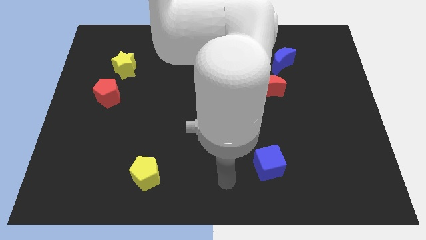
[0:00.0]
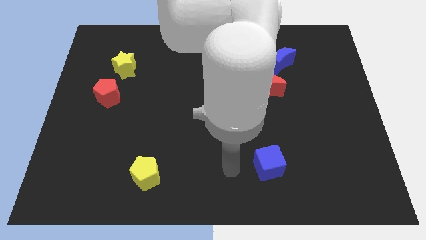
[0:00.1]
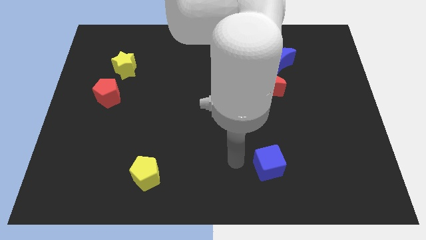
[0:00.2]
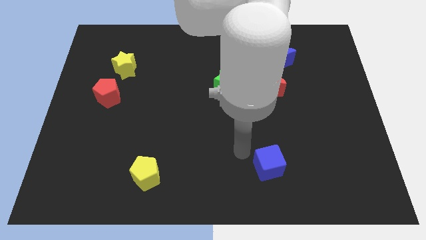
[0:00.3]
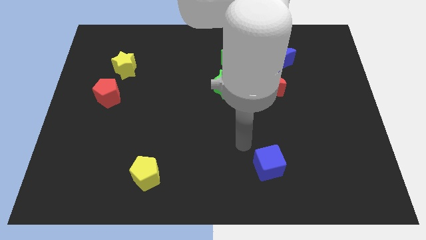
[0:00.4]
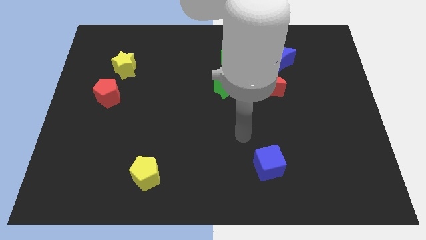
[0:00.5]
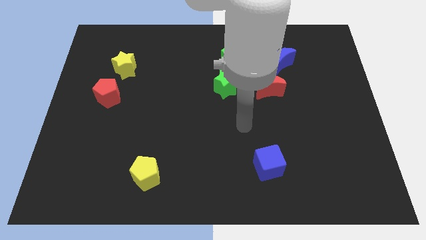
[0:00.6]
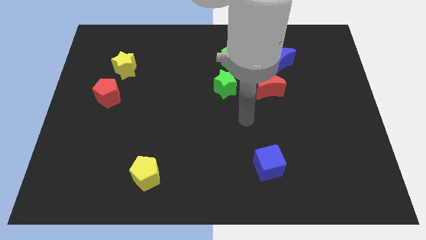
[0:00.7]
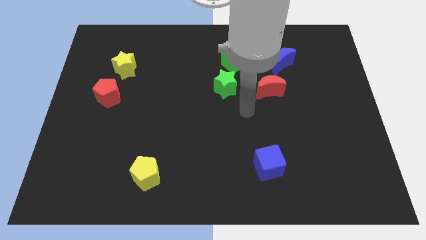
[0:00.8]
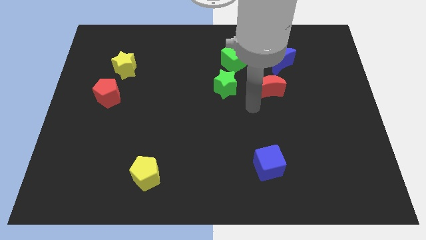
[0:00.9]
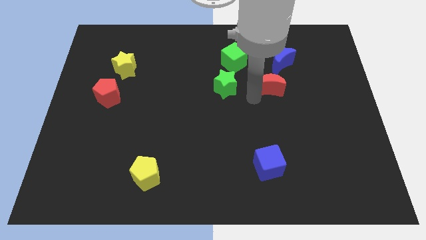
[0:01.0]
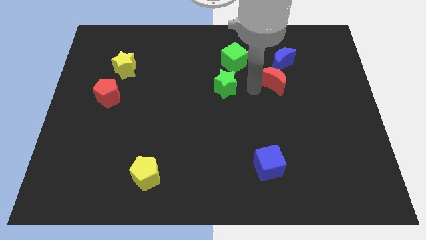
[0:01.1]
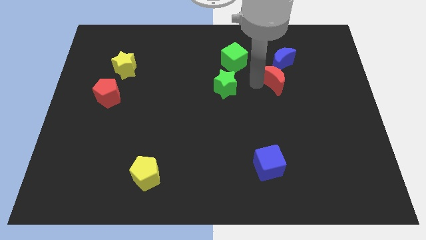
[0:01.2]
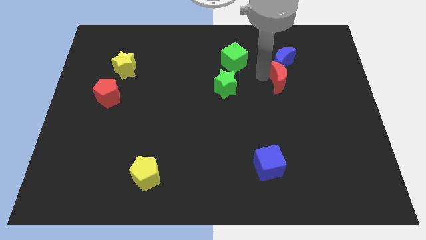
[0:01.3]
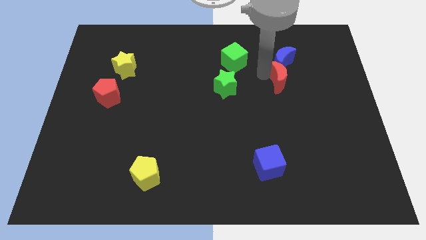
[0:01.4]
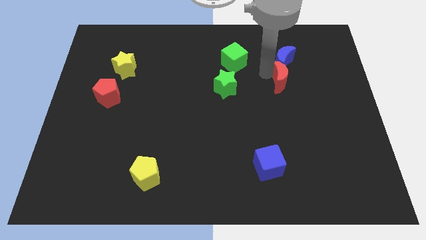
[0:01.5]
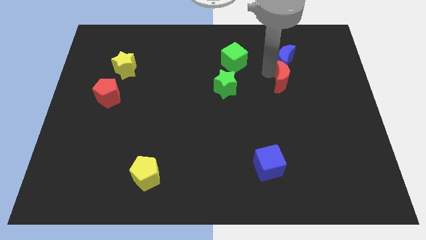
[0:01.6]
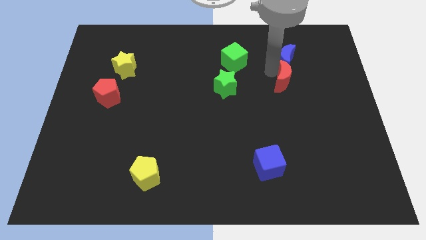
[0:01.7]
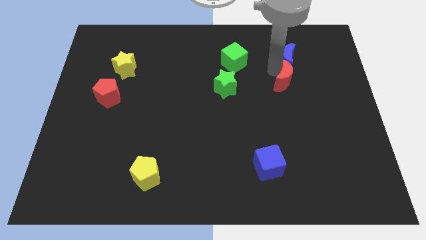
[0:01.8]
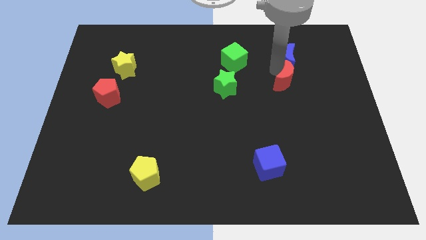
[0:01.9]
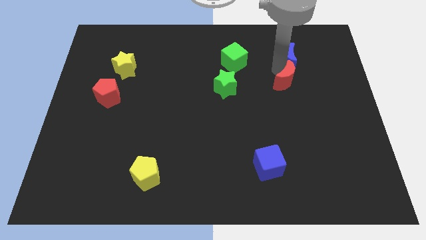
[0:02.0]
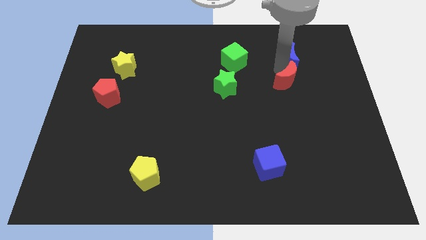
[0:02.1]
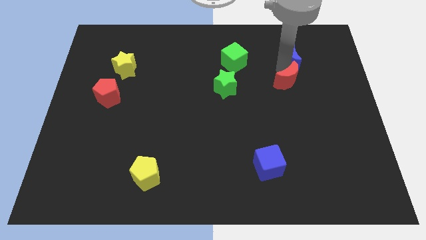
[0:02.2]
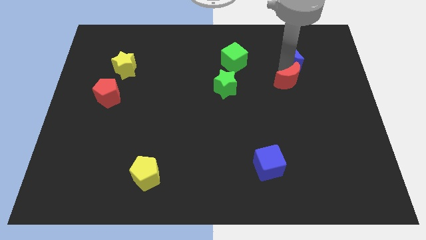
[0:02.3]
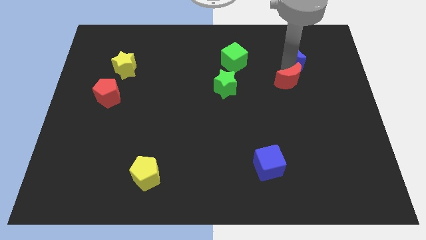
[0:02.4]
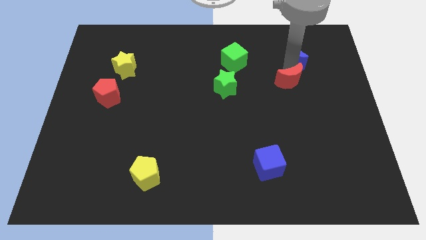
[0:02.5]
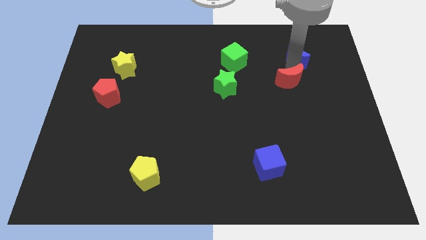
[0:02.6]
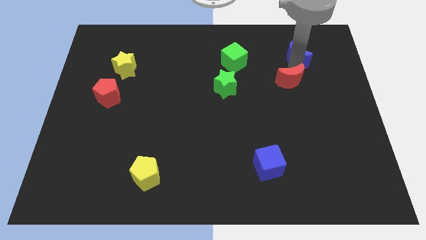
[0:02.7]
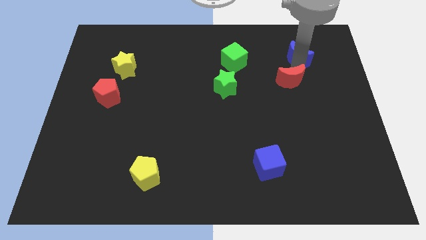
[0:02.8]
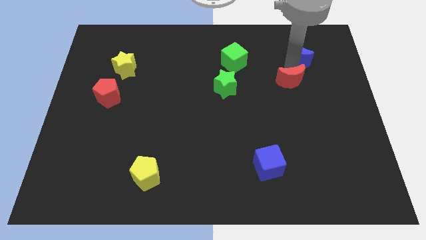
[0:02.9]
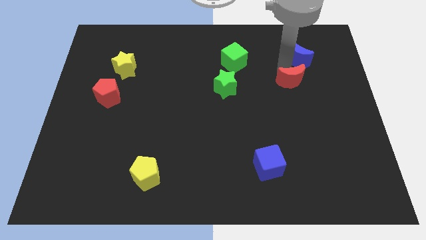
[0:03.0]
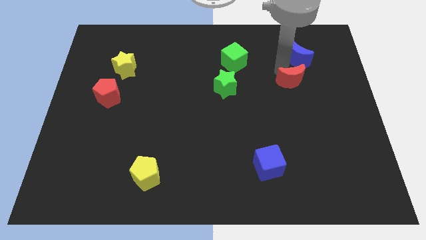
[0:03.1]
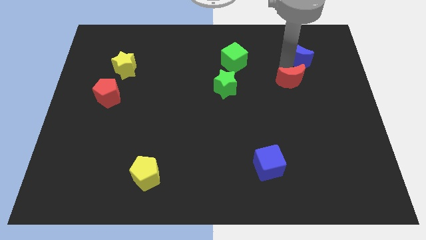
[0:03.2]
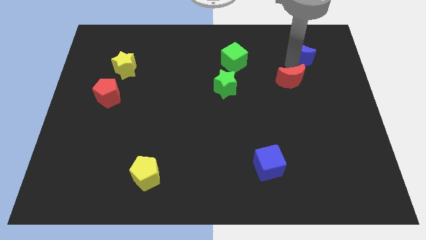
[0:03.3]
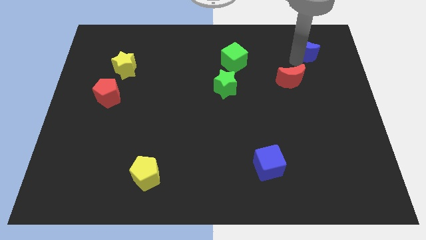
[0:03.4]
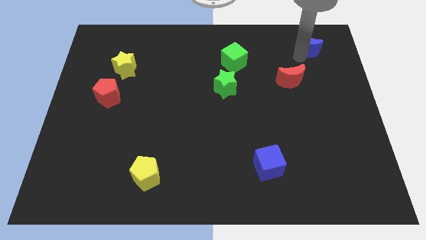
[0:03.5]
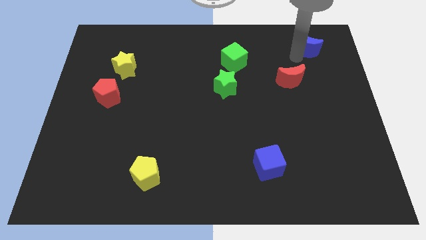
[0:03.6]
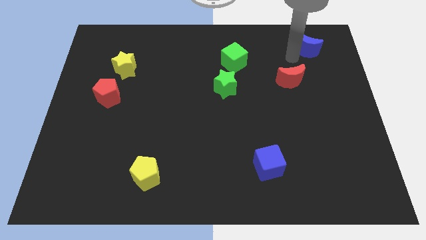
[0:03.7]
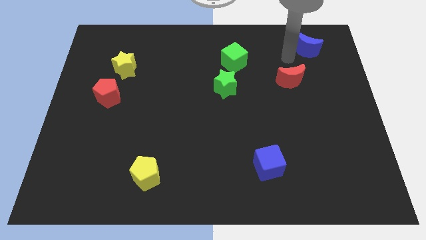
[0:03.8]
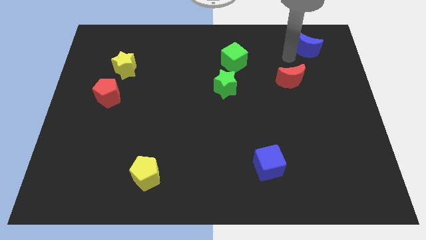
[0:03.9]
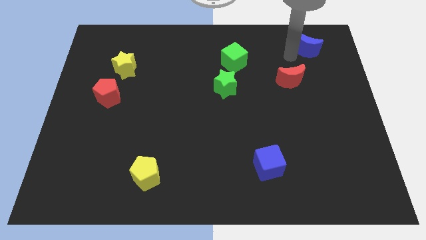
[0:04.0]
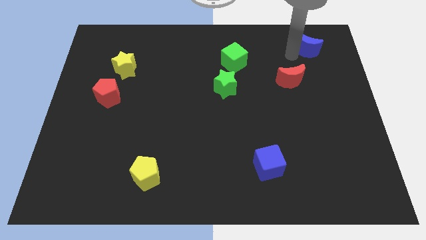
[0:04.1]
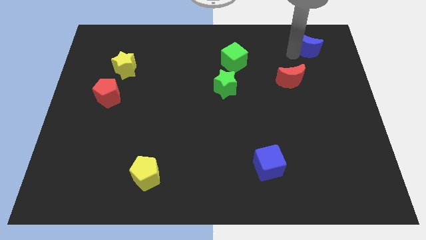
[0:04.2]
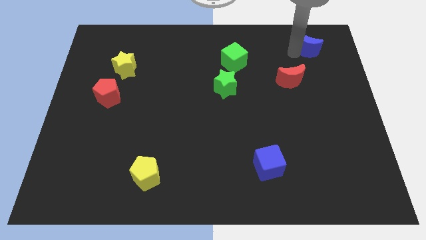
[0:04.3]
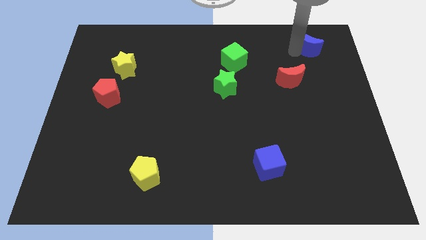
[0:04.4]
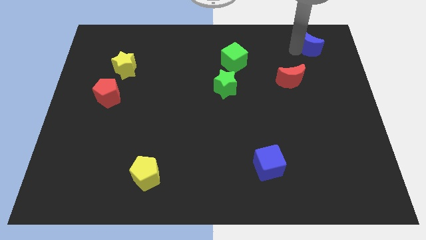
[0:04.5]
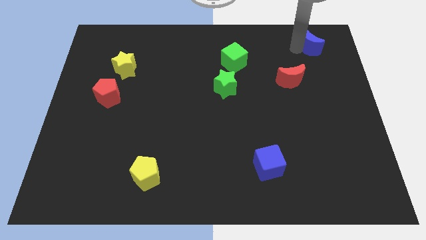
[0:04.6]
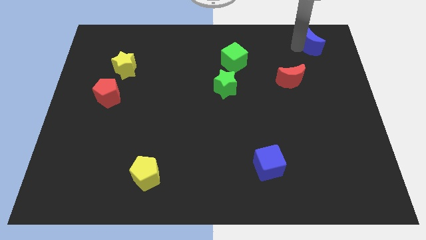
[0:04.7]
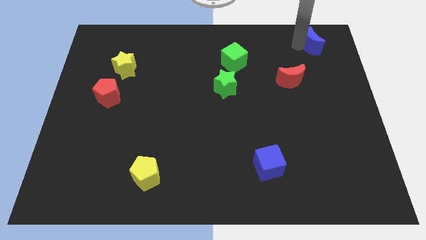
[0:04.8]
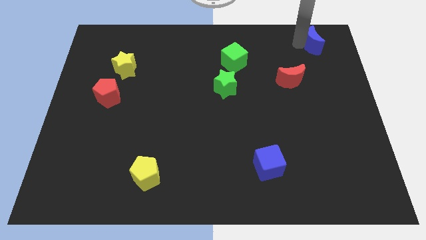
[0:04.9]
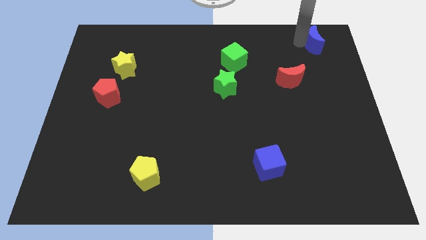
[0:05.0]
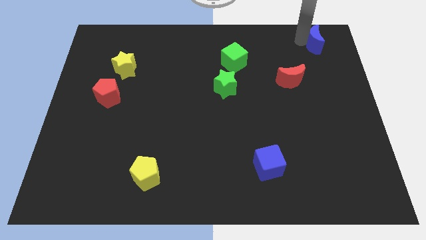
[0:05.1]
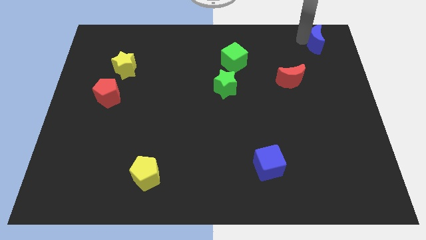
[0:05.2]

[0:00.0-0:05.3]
put the blue moon to the upper right corner

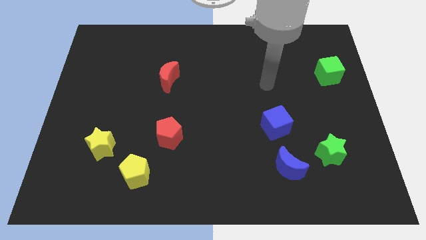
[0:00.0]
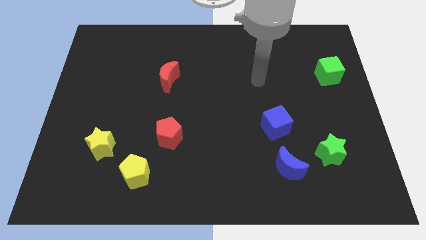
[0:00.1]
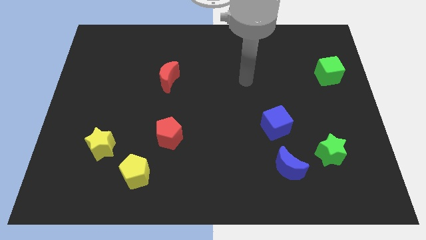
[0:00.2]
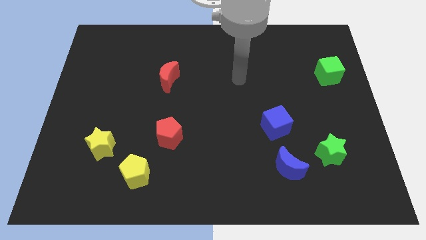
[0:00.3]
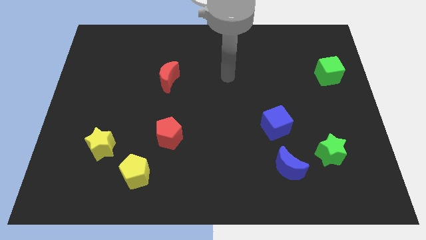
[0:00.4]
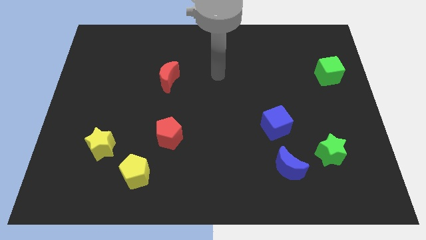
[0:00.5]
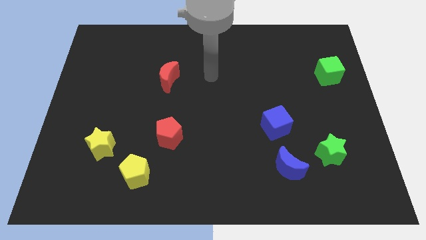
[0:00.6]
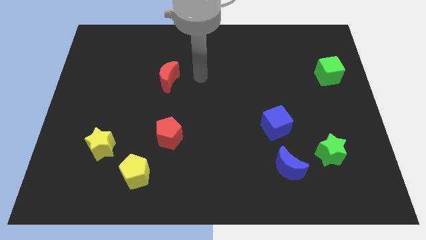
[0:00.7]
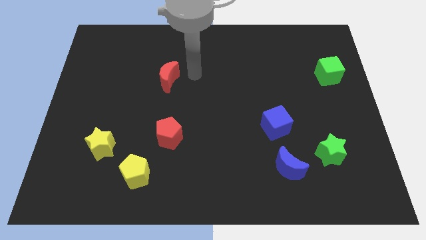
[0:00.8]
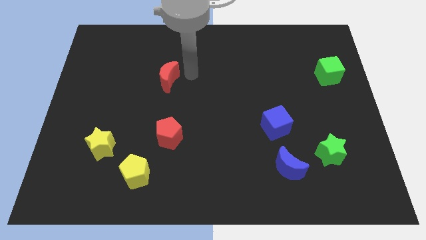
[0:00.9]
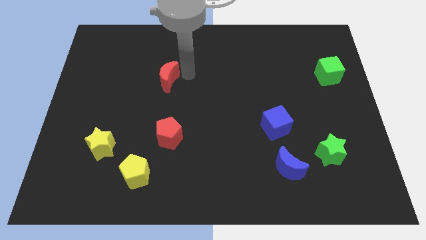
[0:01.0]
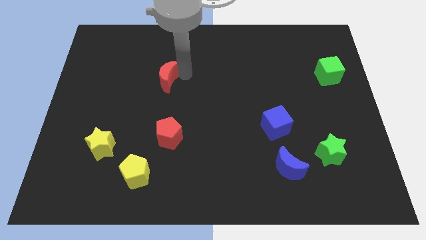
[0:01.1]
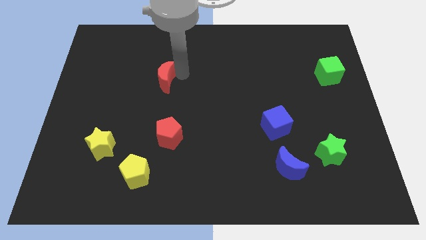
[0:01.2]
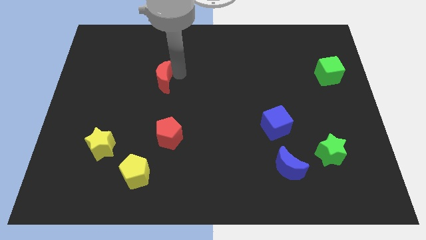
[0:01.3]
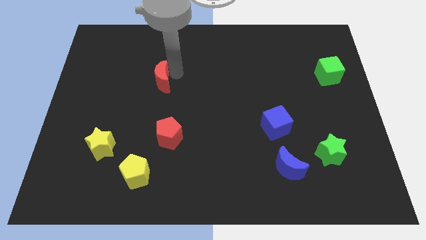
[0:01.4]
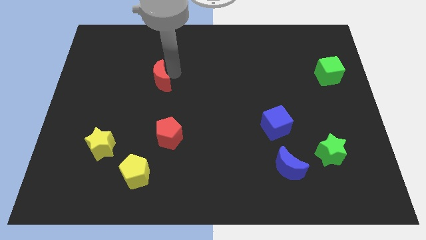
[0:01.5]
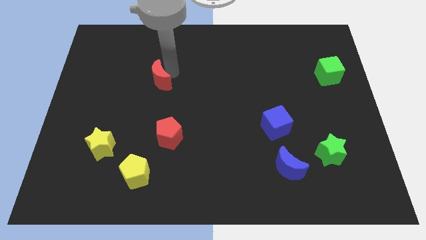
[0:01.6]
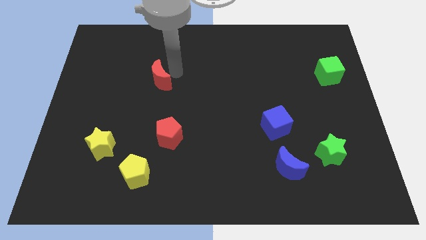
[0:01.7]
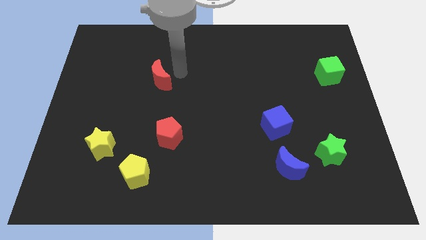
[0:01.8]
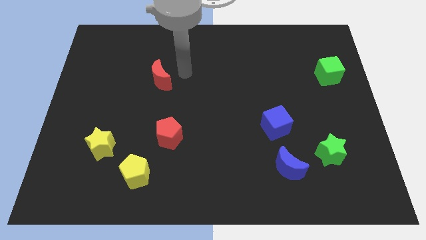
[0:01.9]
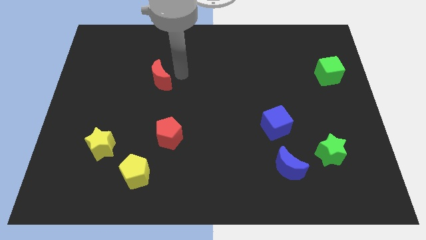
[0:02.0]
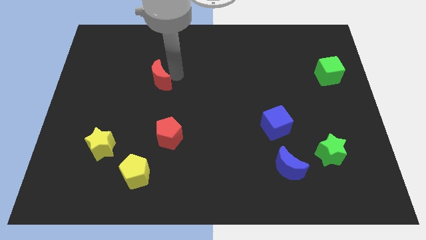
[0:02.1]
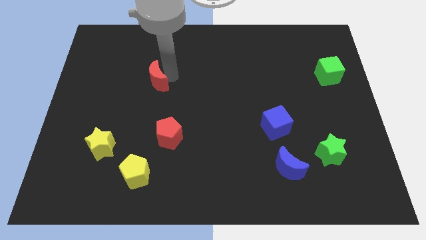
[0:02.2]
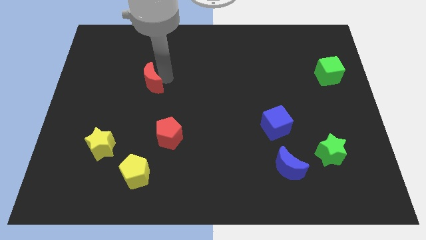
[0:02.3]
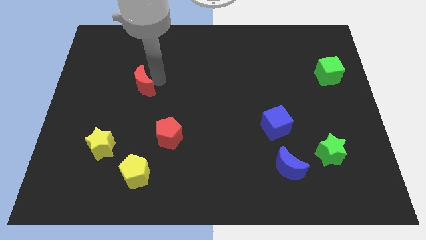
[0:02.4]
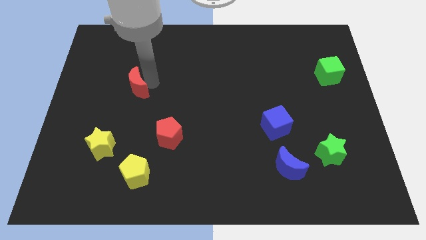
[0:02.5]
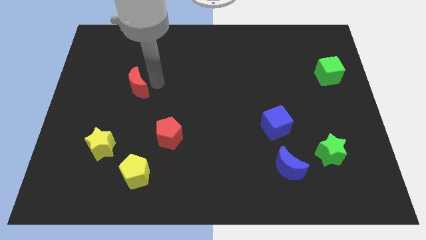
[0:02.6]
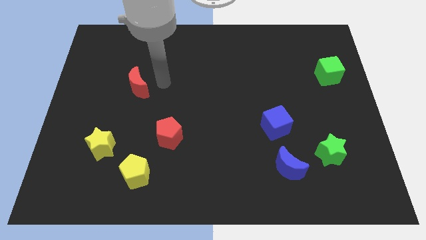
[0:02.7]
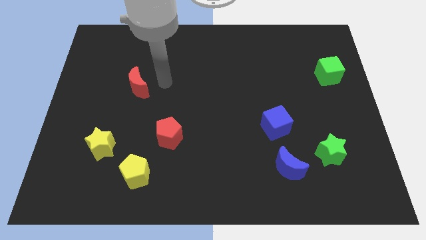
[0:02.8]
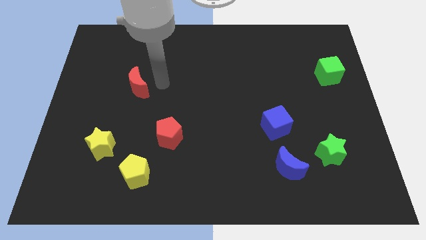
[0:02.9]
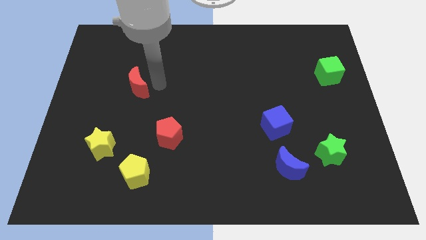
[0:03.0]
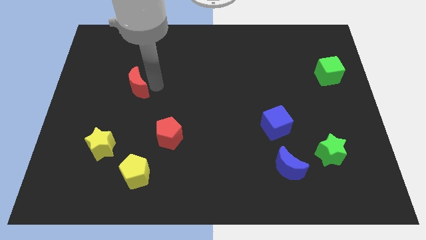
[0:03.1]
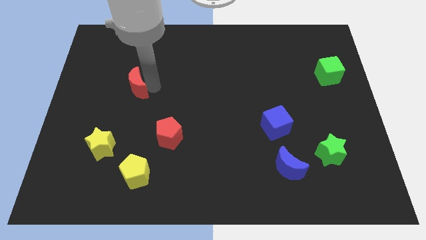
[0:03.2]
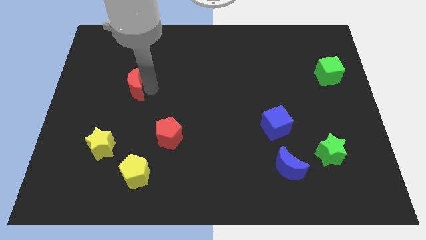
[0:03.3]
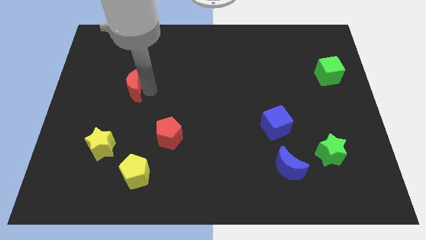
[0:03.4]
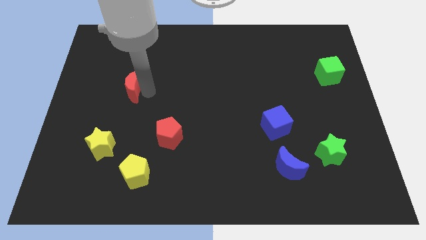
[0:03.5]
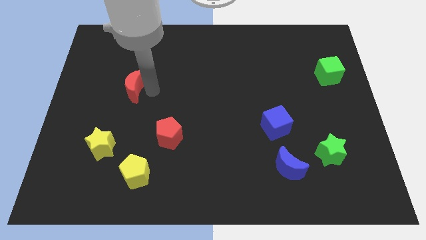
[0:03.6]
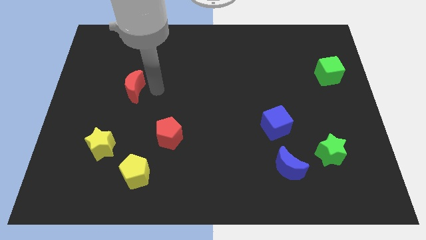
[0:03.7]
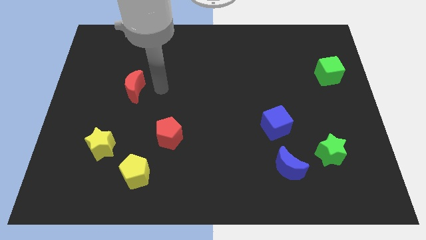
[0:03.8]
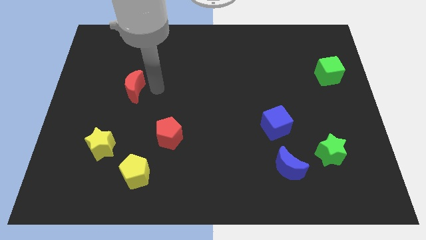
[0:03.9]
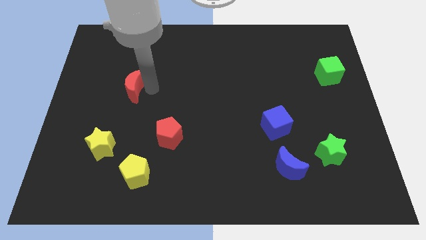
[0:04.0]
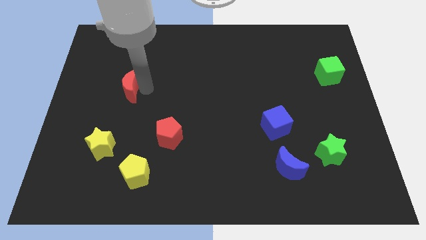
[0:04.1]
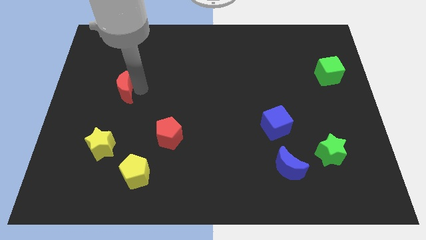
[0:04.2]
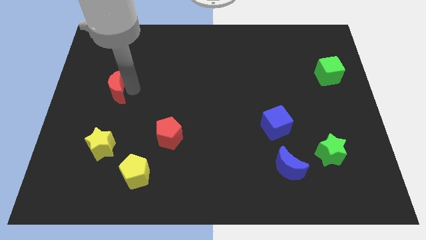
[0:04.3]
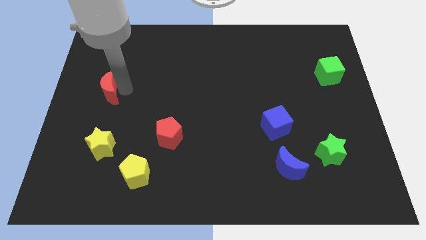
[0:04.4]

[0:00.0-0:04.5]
push the red moon to the left side of the board
